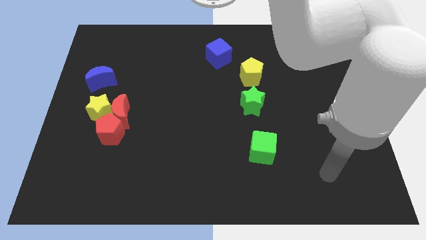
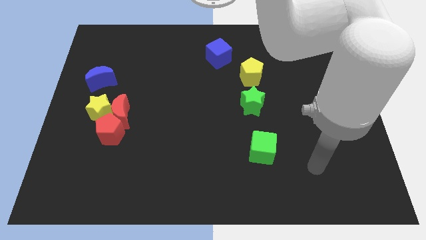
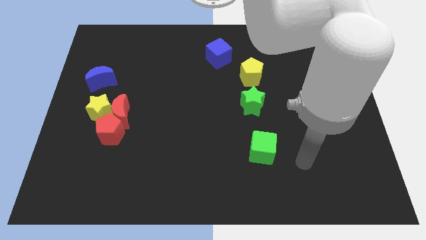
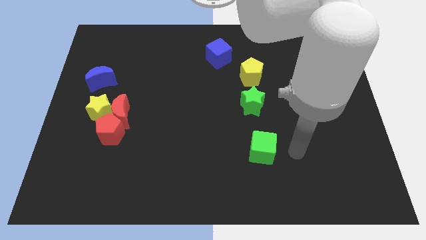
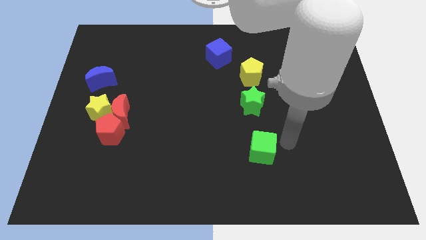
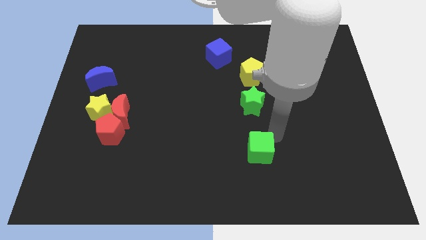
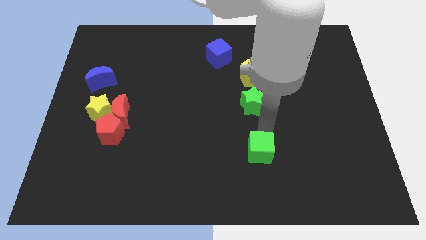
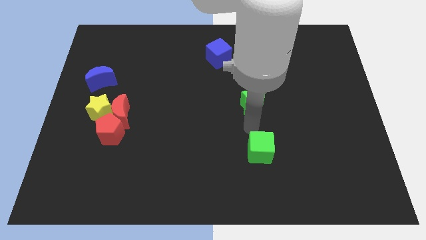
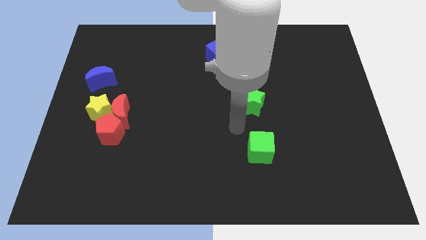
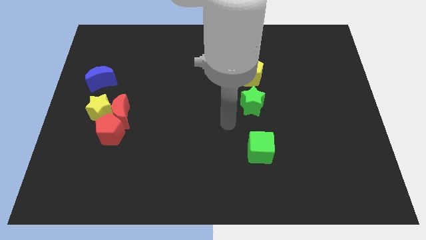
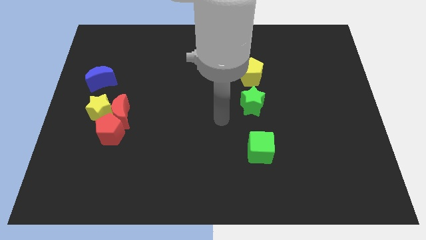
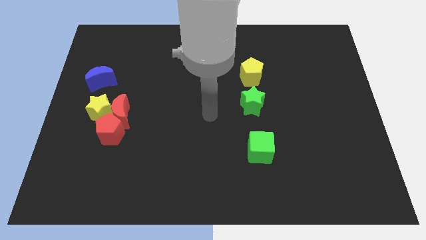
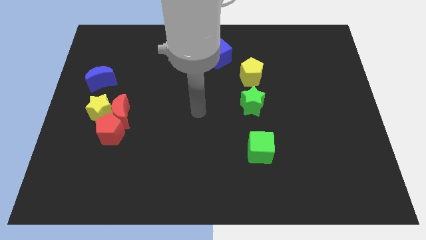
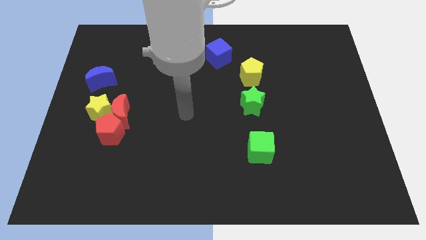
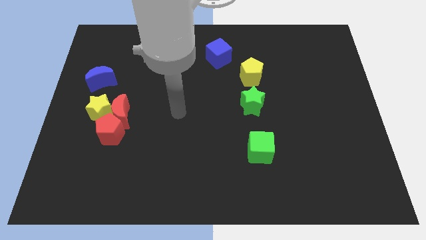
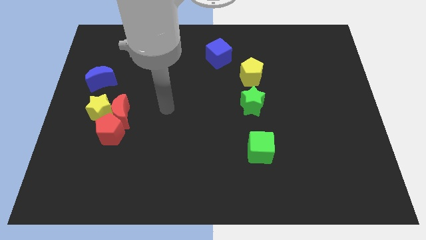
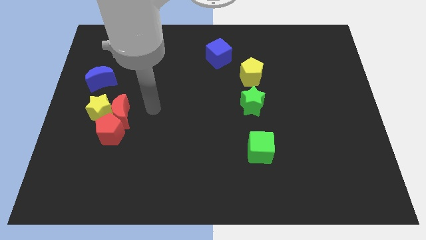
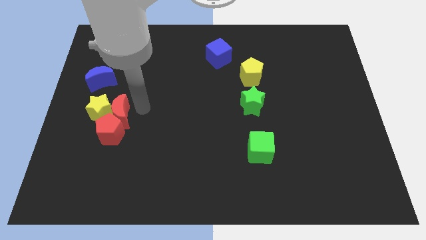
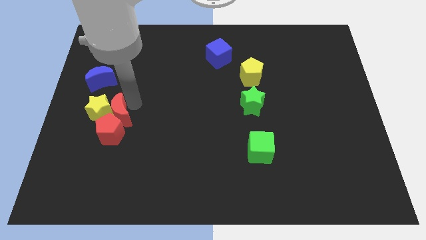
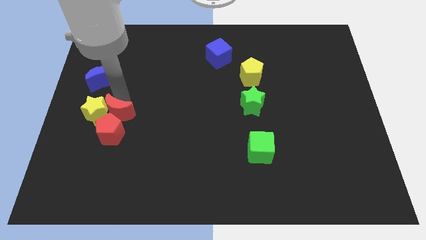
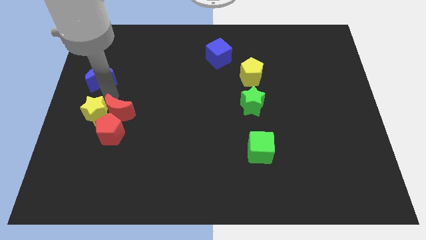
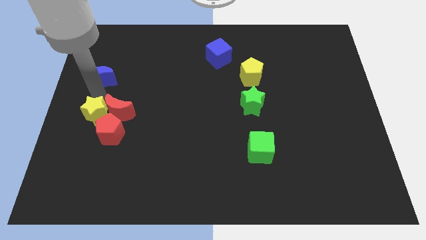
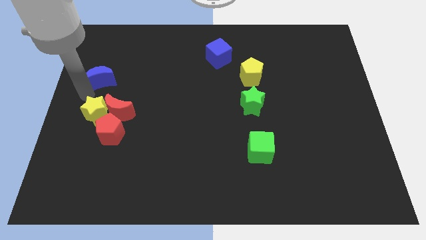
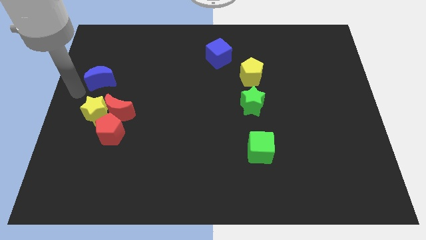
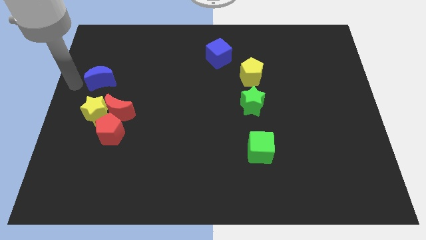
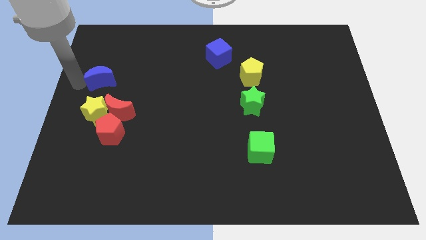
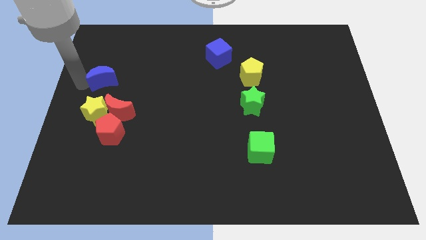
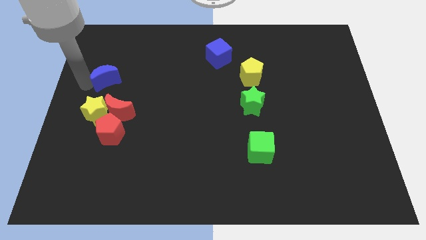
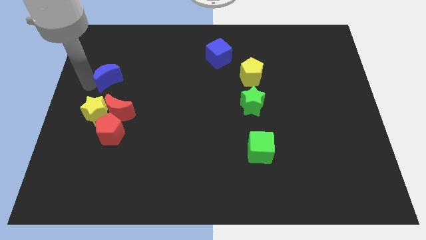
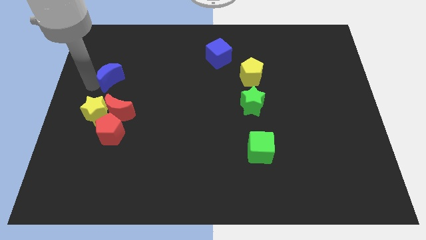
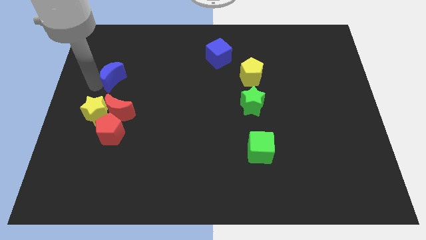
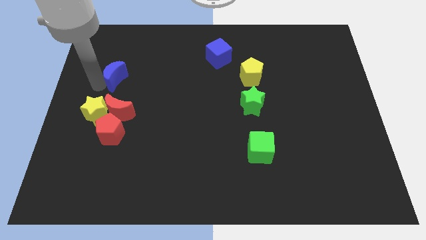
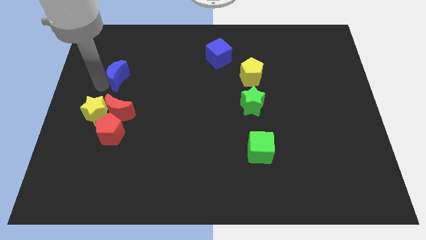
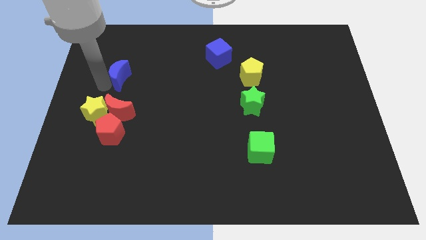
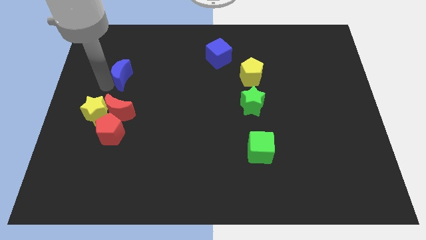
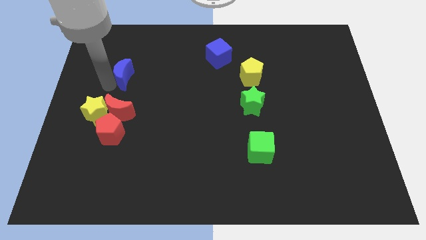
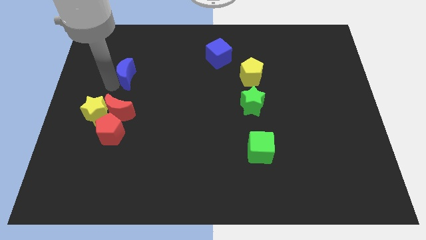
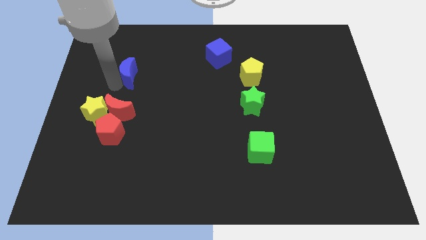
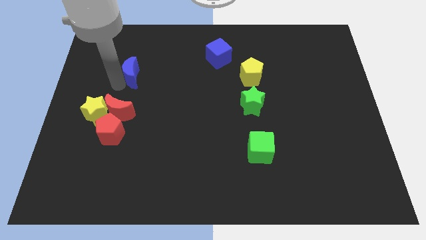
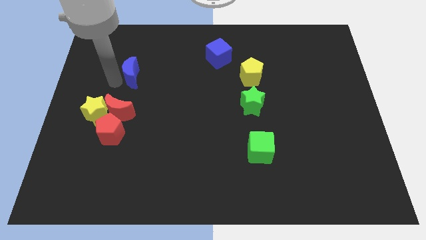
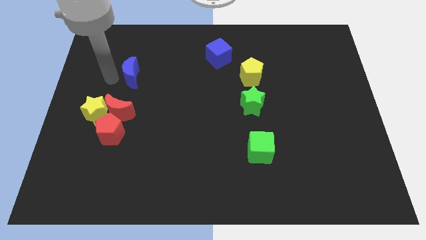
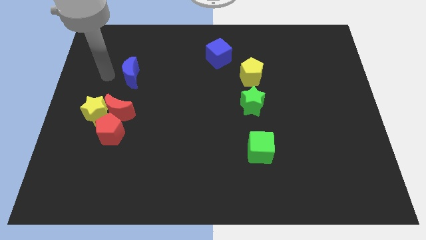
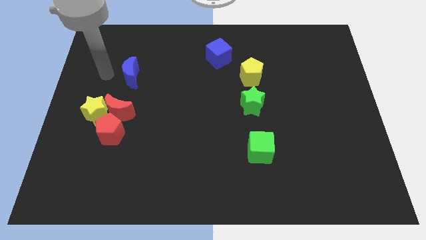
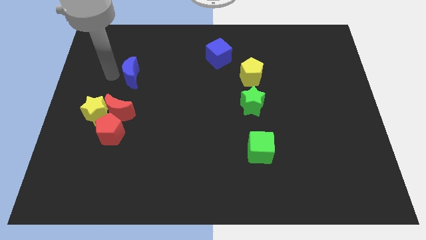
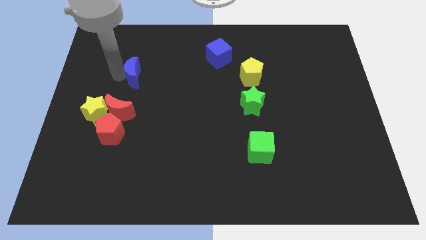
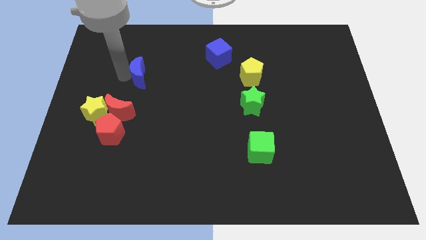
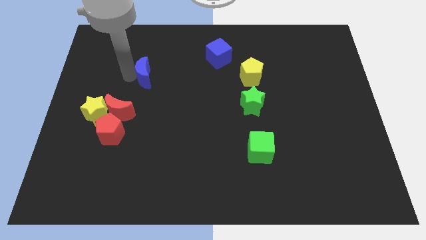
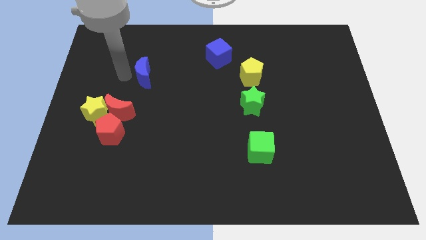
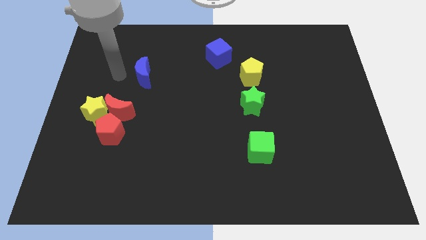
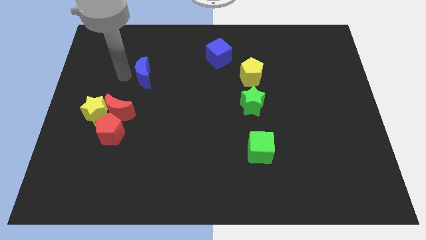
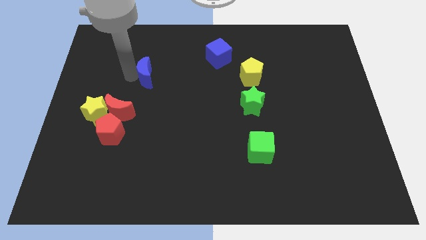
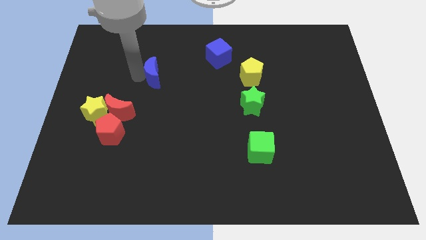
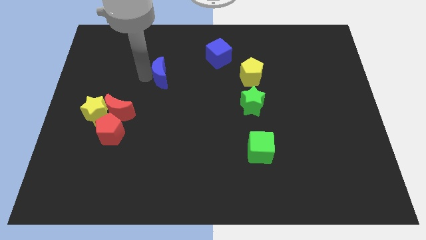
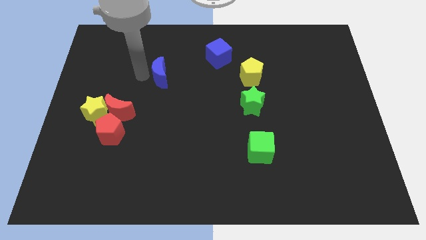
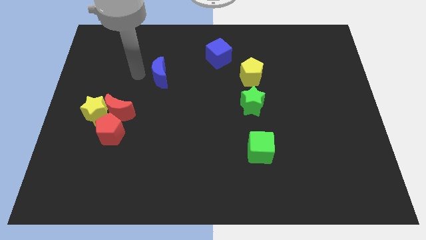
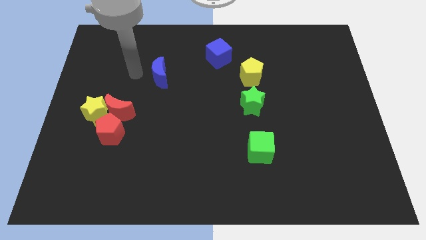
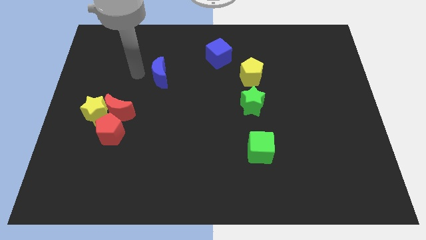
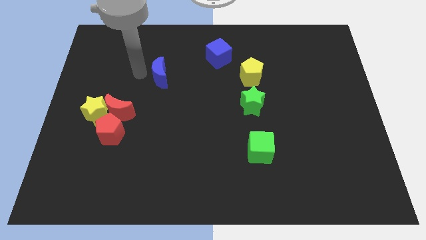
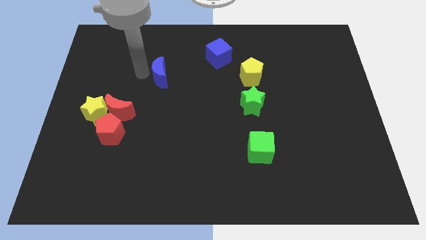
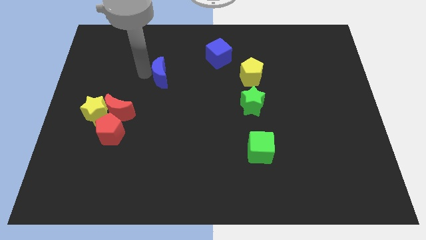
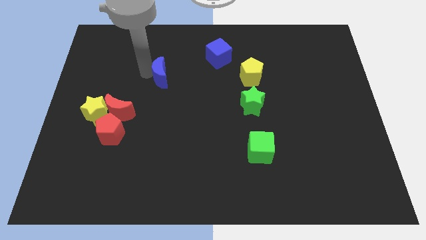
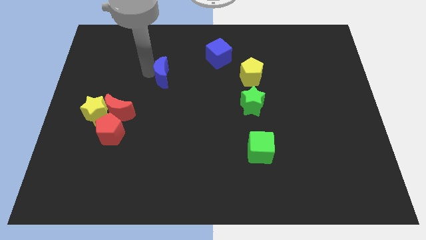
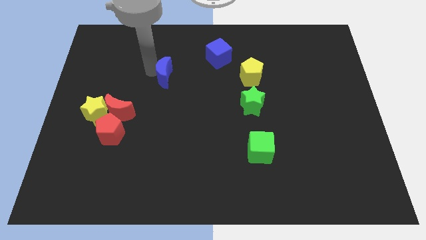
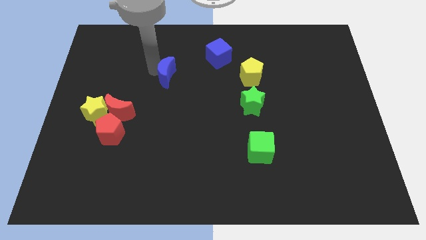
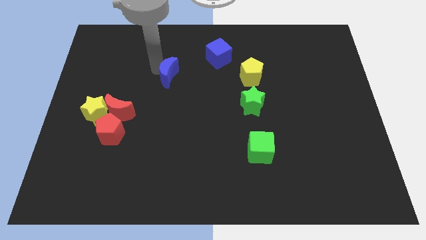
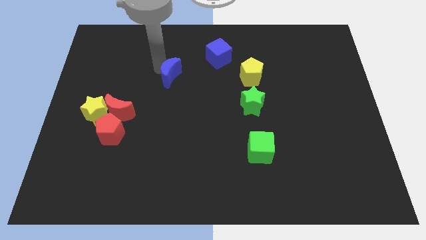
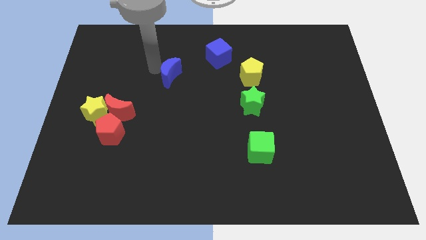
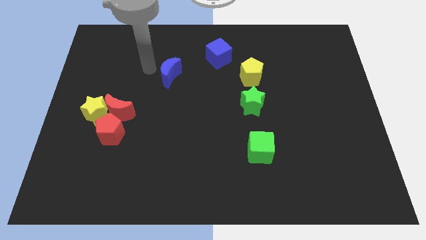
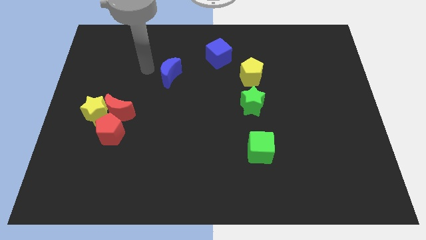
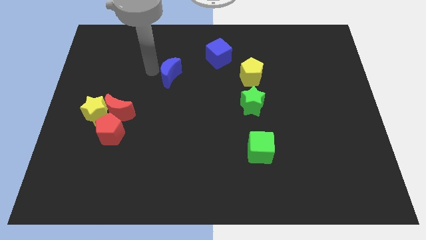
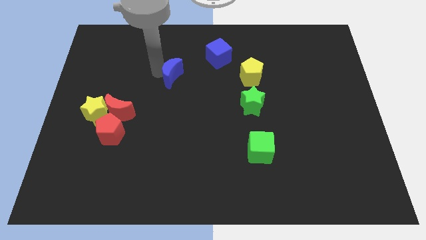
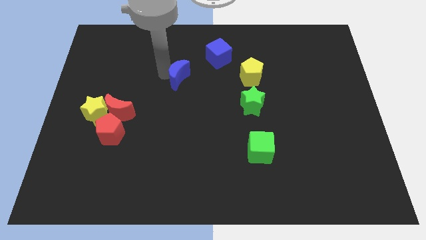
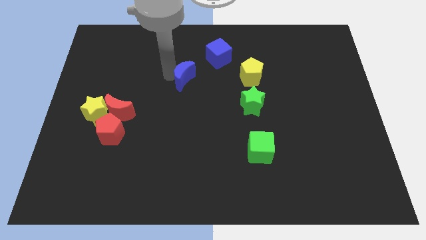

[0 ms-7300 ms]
slide the blue moon to the right

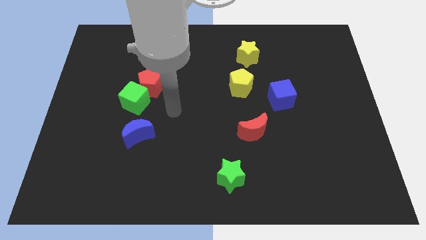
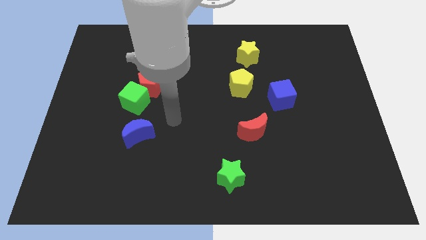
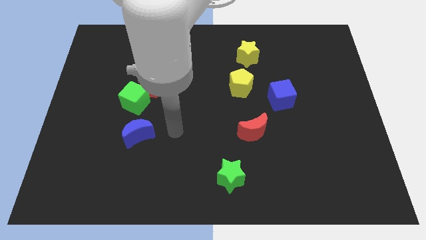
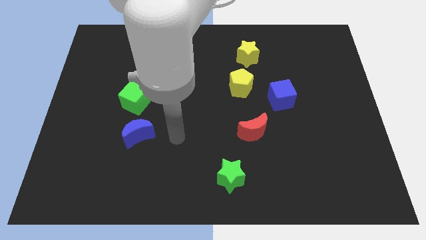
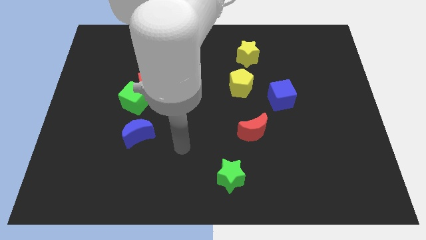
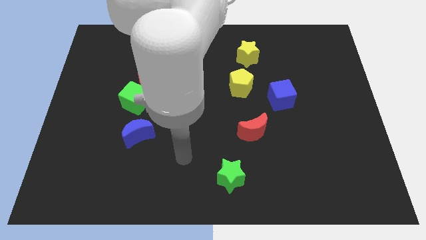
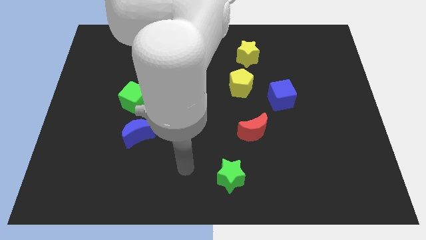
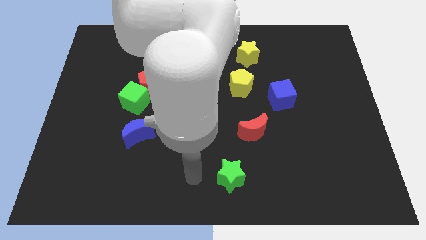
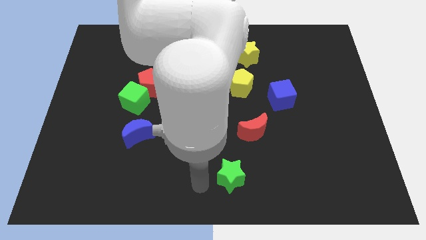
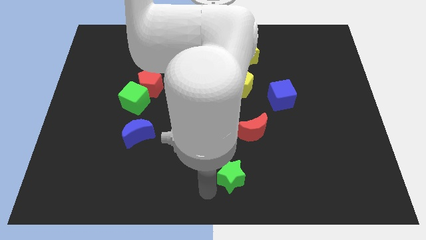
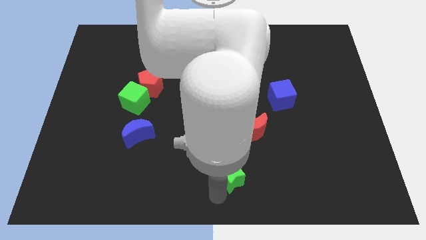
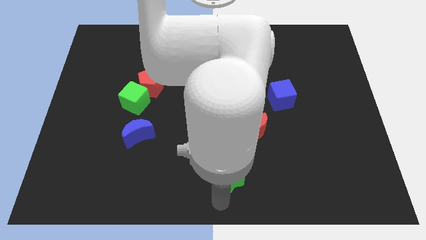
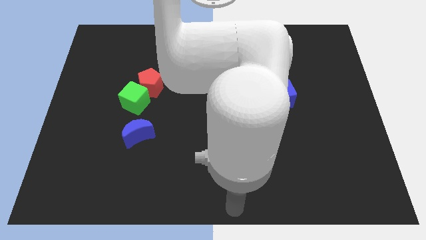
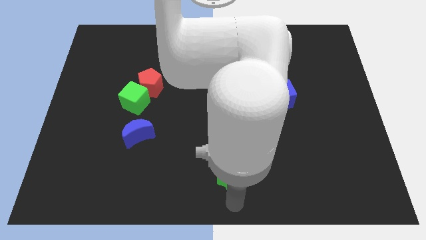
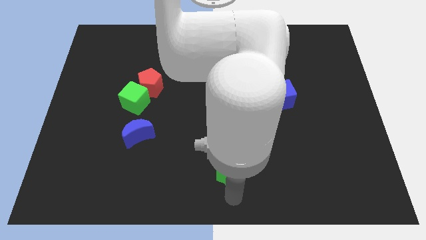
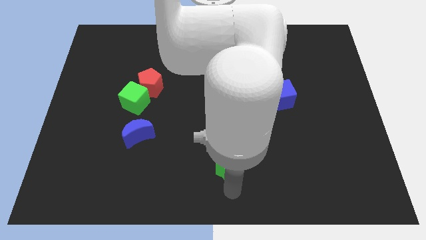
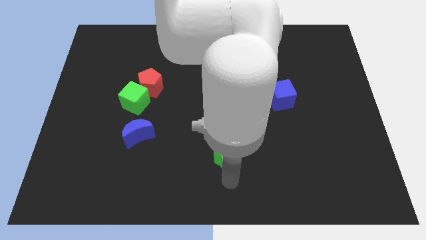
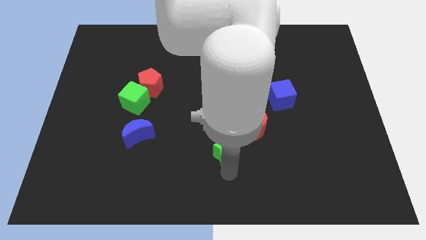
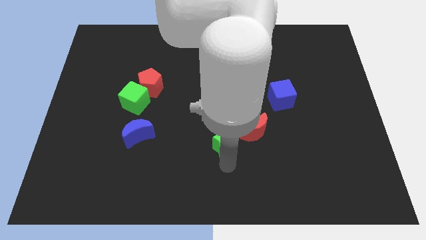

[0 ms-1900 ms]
push the green star somewhat up
